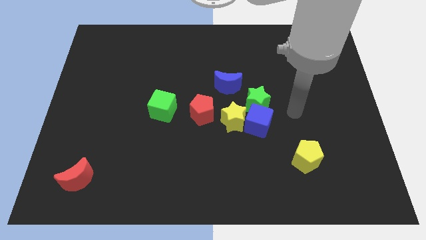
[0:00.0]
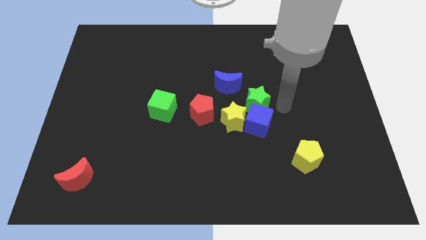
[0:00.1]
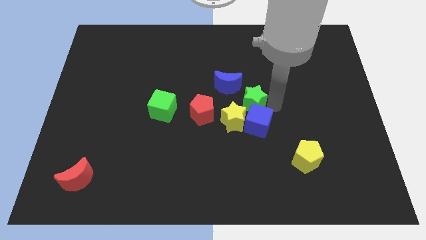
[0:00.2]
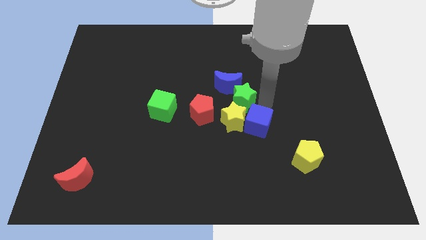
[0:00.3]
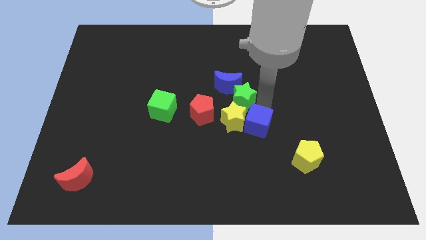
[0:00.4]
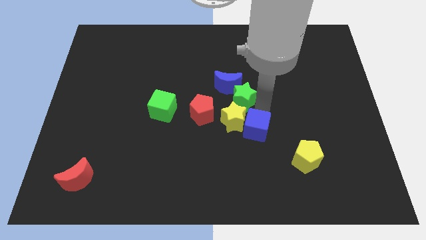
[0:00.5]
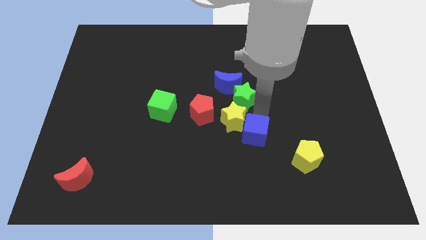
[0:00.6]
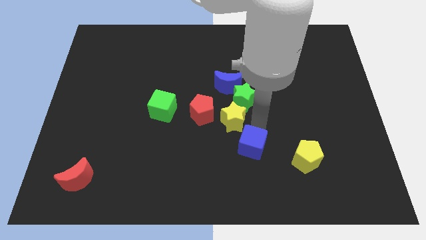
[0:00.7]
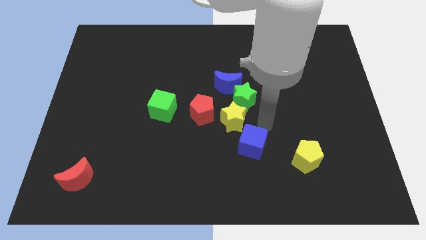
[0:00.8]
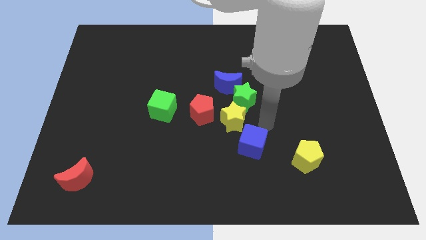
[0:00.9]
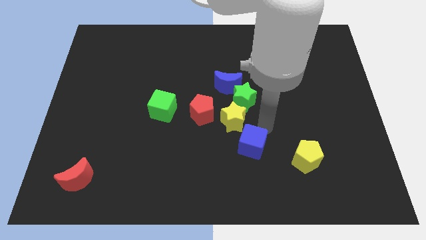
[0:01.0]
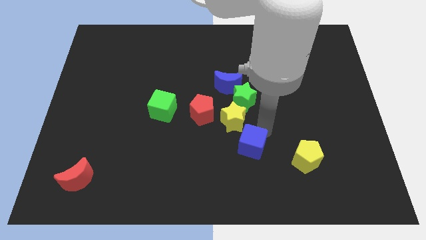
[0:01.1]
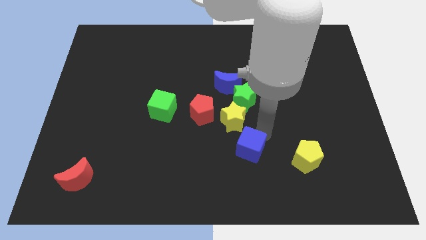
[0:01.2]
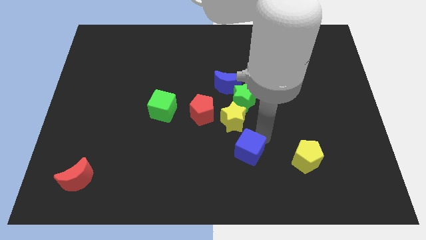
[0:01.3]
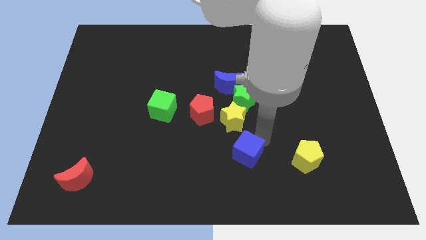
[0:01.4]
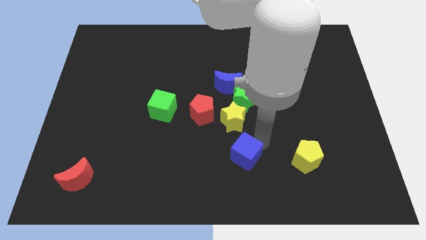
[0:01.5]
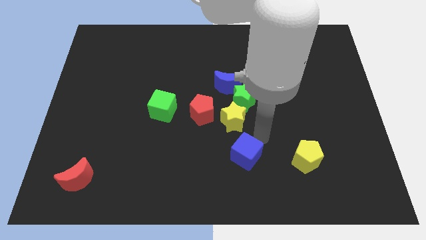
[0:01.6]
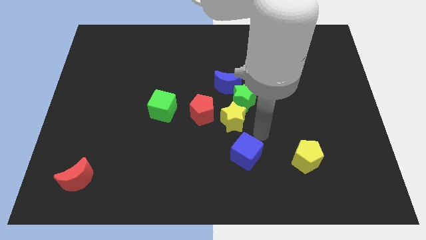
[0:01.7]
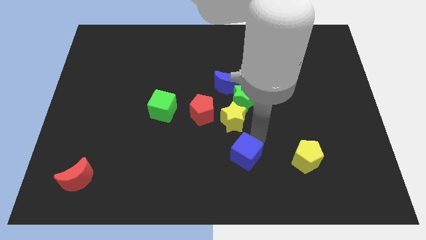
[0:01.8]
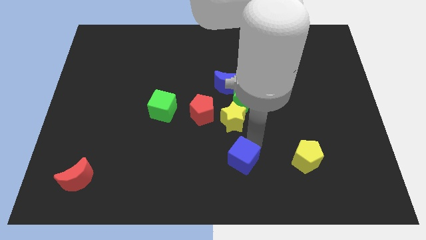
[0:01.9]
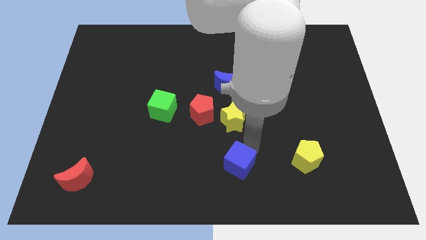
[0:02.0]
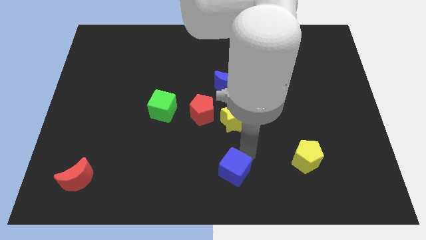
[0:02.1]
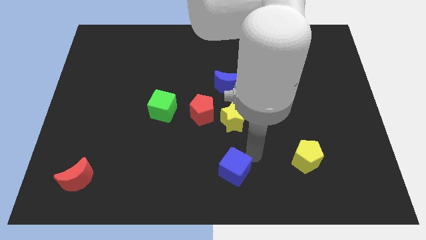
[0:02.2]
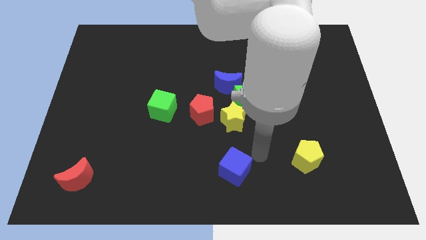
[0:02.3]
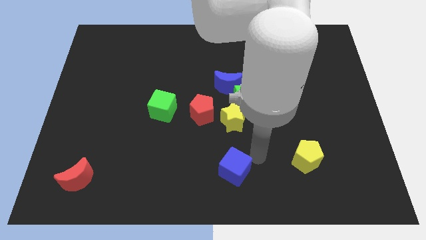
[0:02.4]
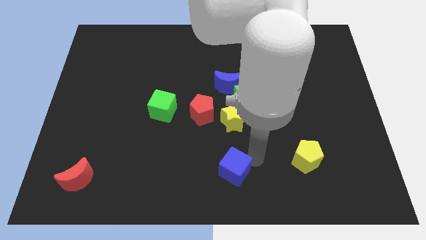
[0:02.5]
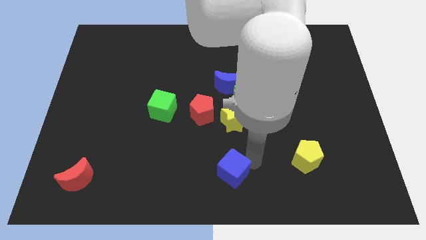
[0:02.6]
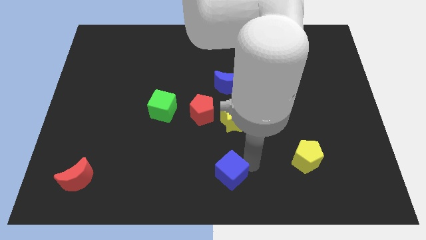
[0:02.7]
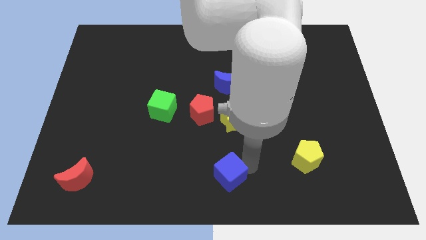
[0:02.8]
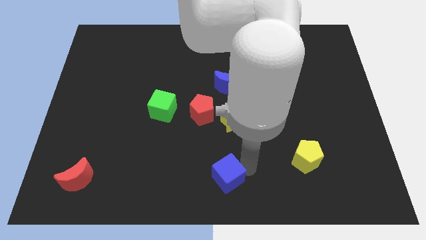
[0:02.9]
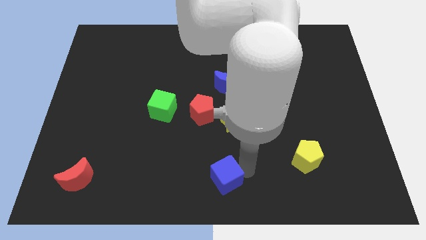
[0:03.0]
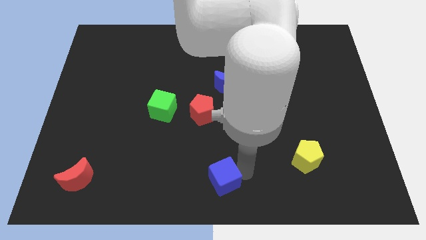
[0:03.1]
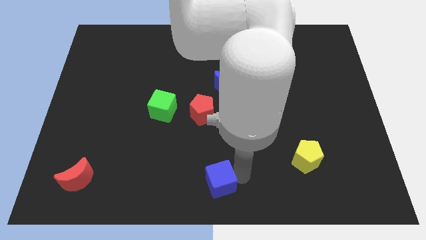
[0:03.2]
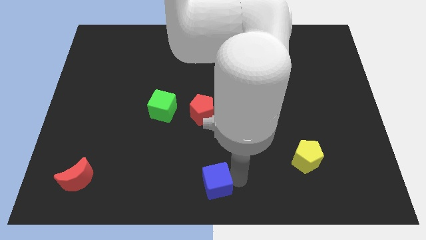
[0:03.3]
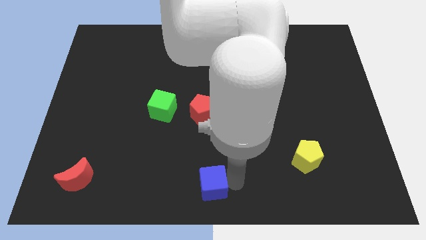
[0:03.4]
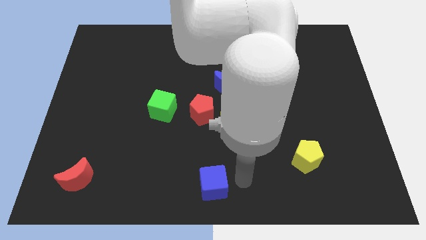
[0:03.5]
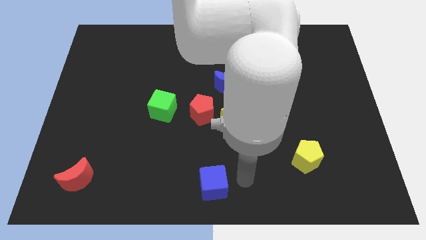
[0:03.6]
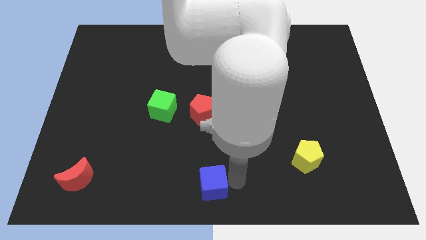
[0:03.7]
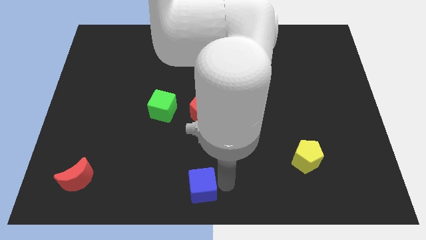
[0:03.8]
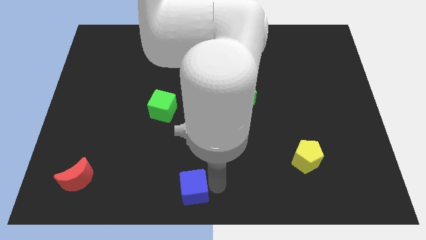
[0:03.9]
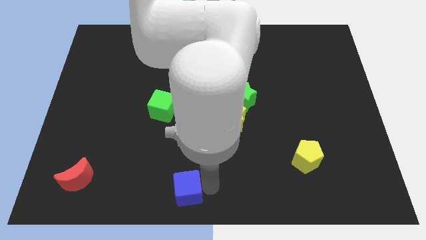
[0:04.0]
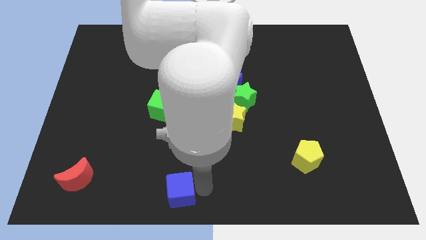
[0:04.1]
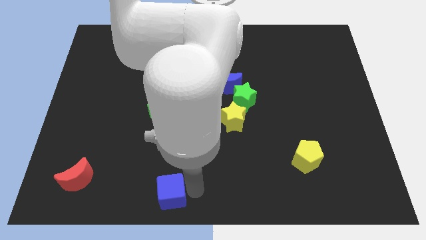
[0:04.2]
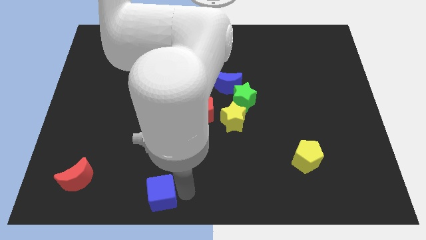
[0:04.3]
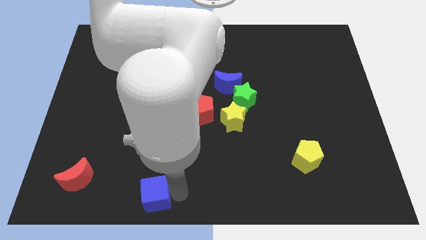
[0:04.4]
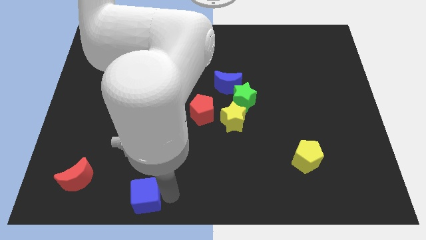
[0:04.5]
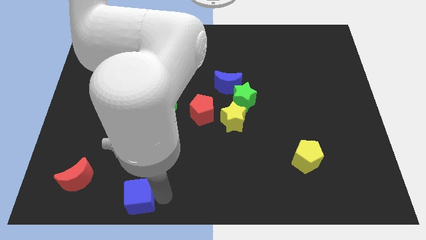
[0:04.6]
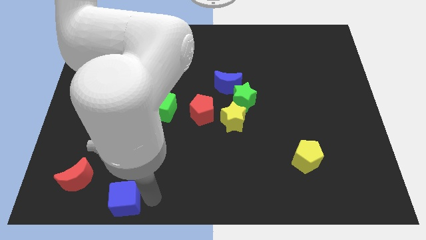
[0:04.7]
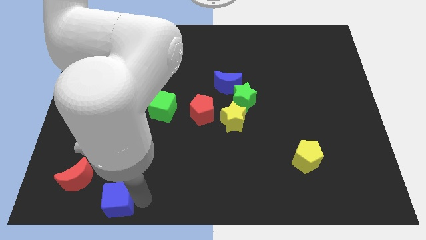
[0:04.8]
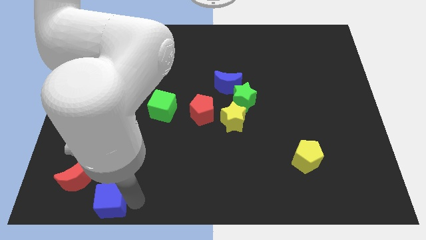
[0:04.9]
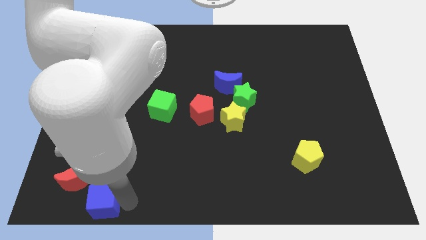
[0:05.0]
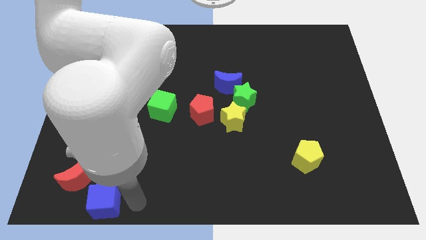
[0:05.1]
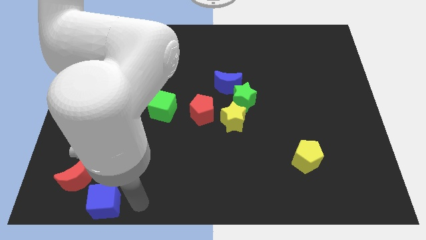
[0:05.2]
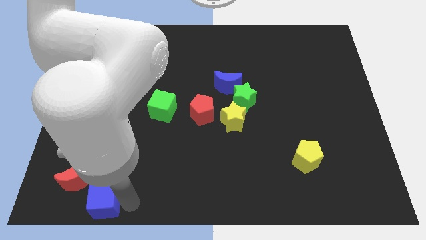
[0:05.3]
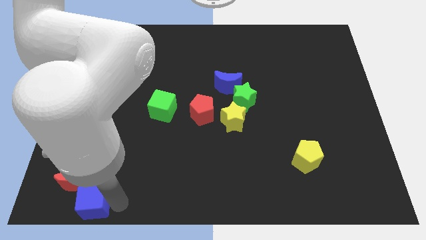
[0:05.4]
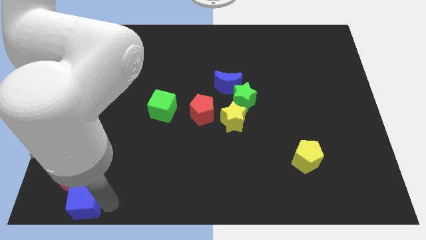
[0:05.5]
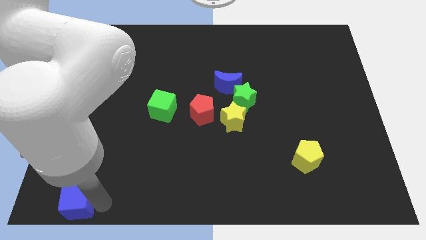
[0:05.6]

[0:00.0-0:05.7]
push the blue cube to the bottom left corner

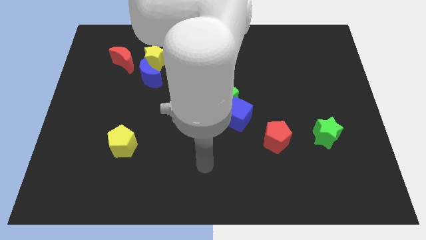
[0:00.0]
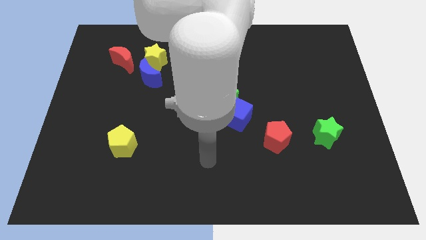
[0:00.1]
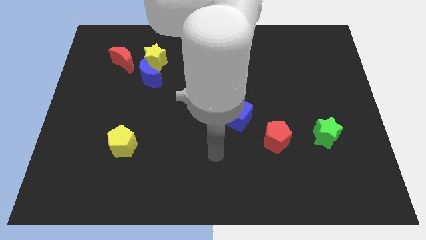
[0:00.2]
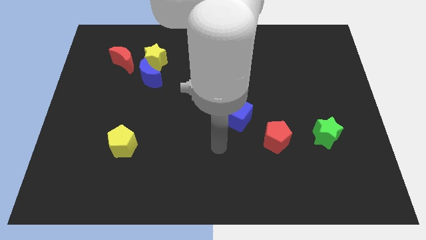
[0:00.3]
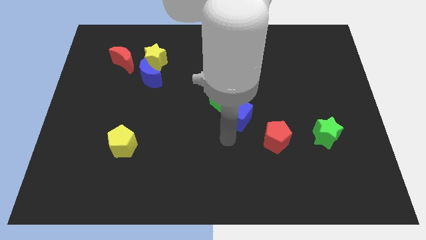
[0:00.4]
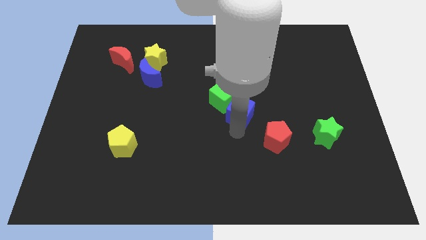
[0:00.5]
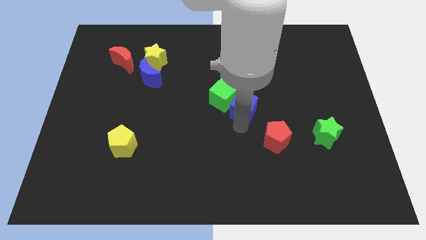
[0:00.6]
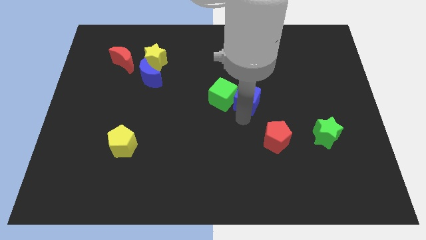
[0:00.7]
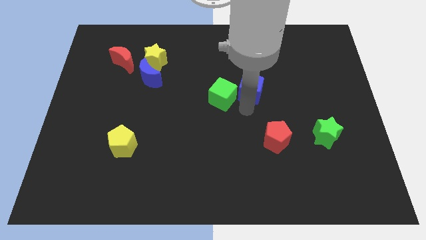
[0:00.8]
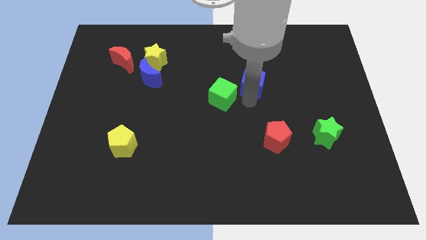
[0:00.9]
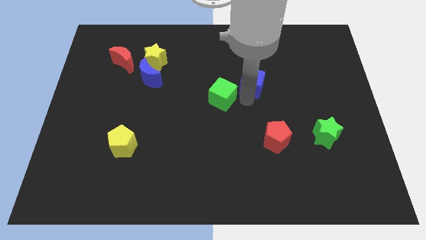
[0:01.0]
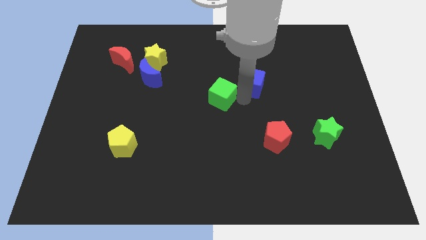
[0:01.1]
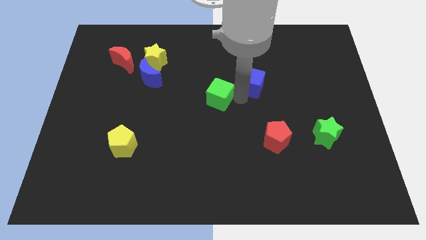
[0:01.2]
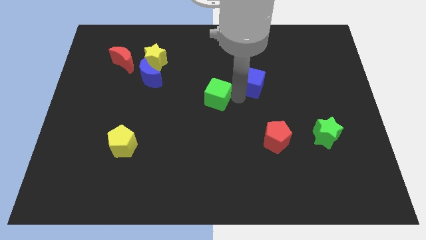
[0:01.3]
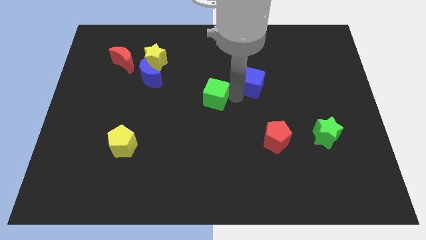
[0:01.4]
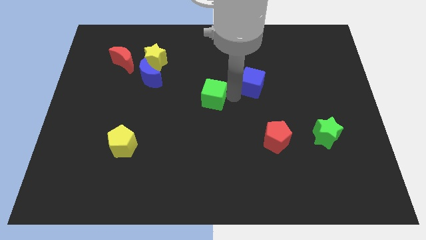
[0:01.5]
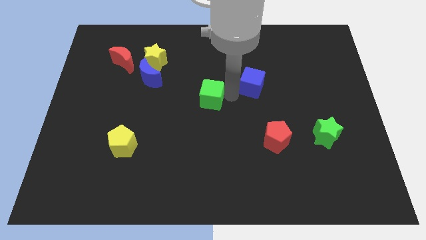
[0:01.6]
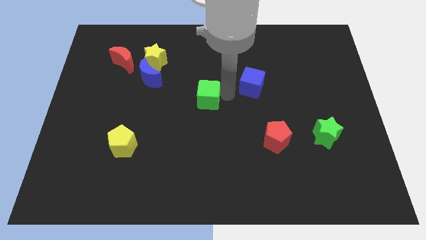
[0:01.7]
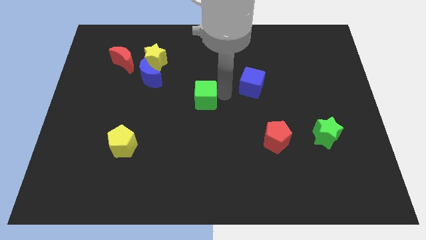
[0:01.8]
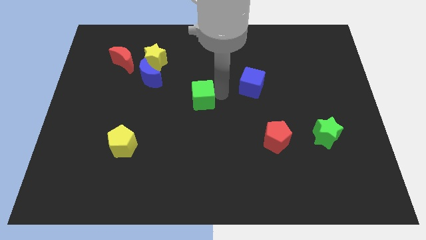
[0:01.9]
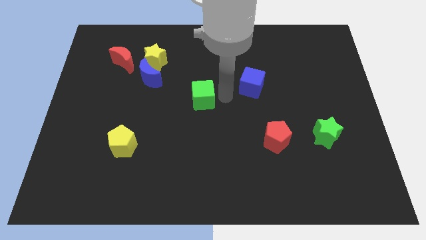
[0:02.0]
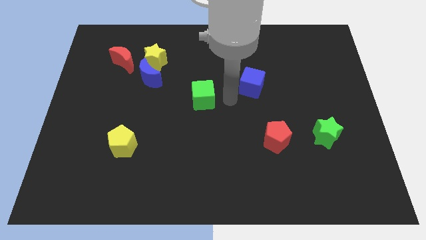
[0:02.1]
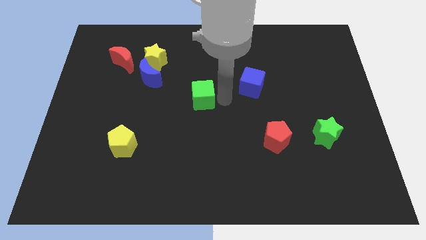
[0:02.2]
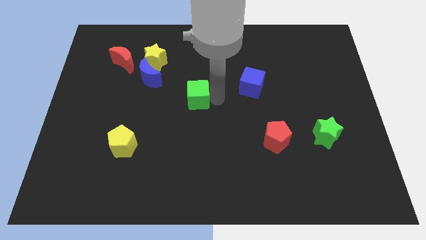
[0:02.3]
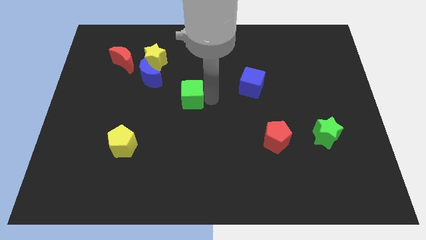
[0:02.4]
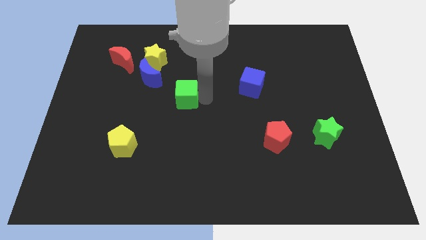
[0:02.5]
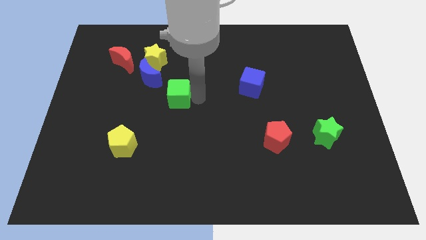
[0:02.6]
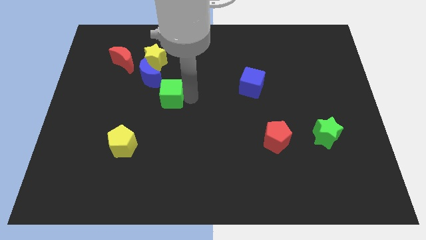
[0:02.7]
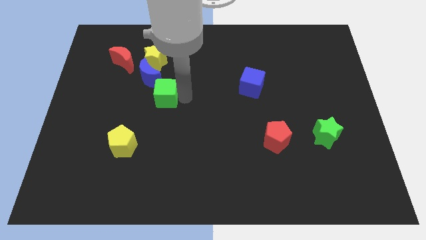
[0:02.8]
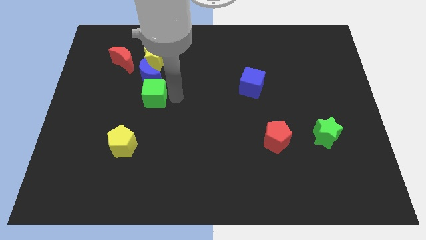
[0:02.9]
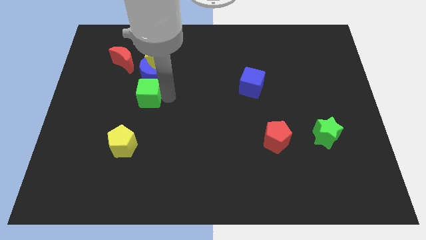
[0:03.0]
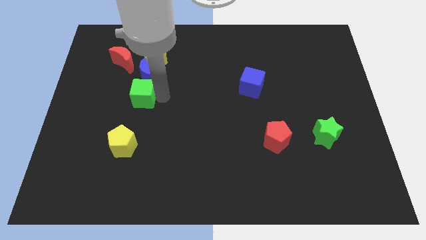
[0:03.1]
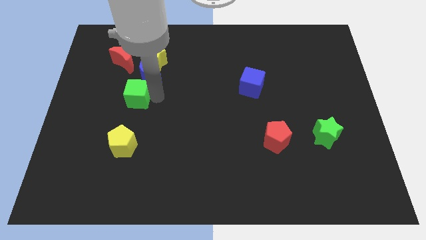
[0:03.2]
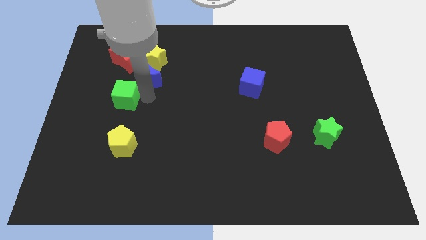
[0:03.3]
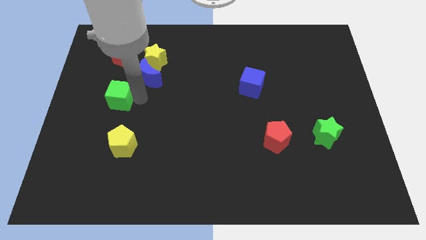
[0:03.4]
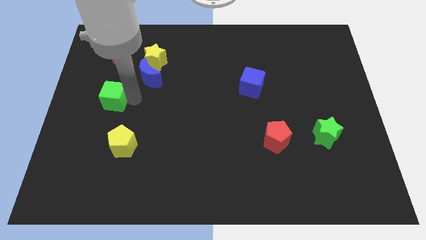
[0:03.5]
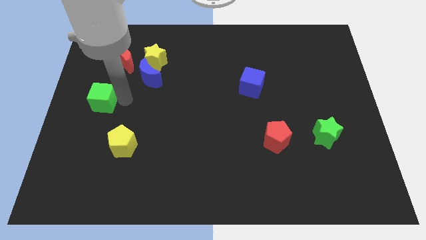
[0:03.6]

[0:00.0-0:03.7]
slide the green cube to the left side
